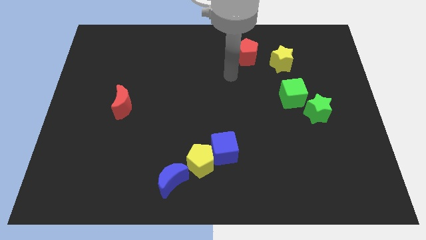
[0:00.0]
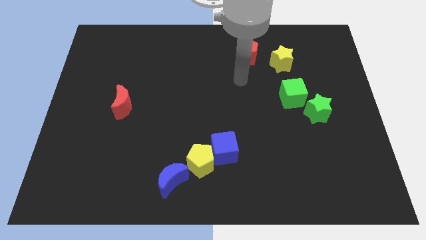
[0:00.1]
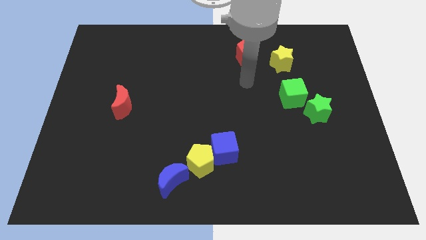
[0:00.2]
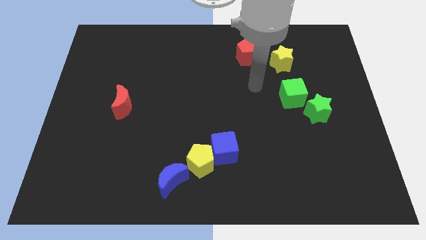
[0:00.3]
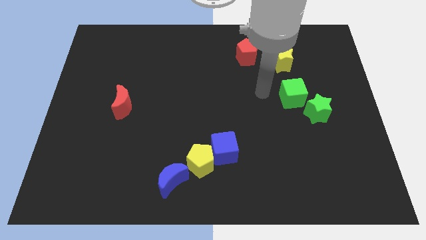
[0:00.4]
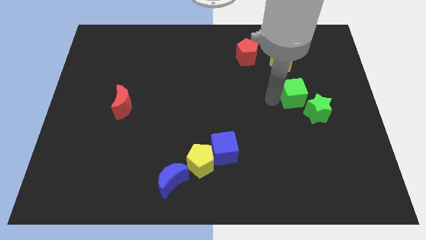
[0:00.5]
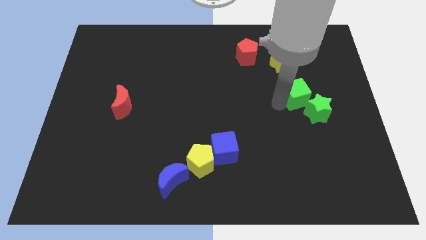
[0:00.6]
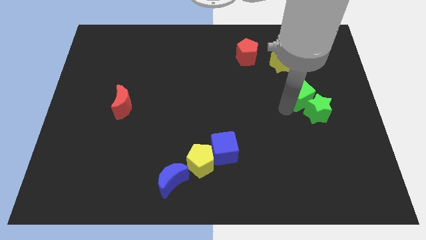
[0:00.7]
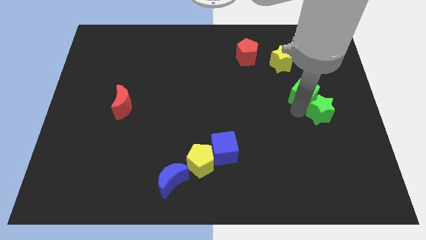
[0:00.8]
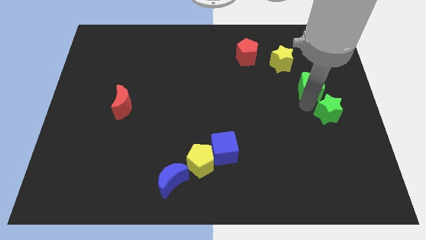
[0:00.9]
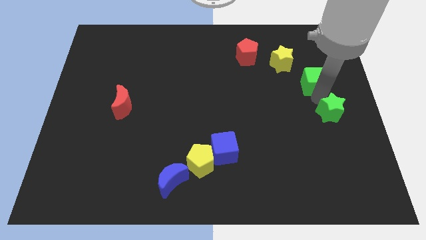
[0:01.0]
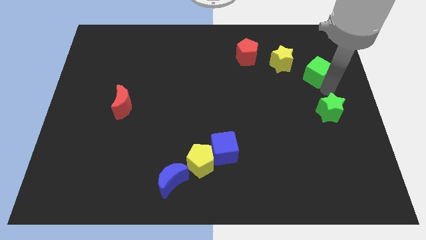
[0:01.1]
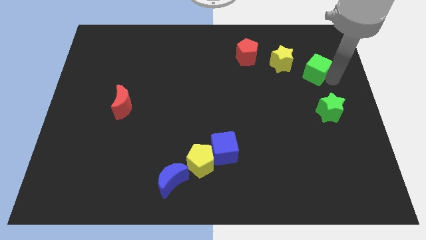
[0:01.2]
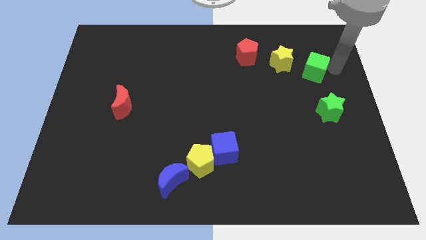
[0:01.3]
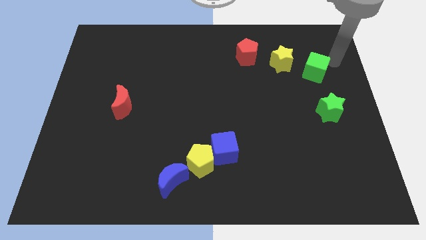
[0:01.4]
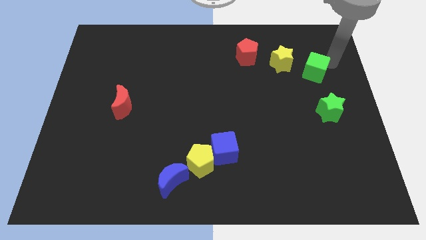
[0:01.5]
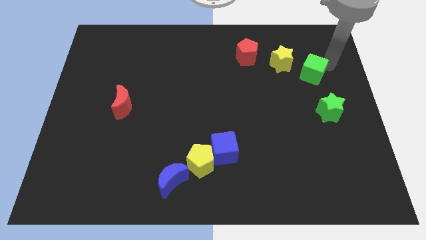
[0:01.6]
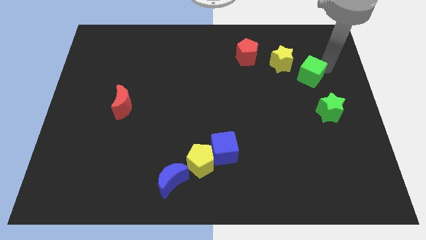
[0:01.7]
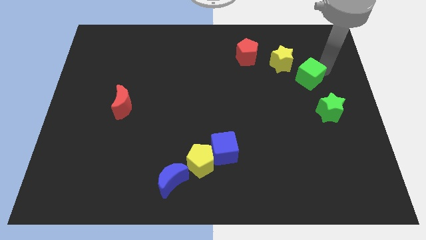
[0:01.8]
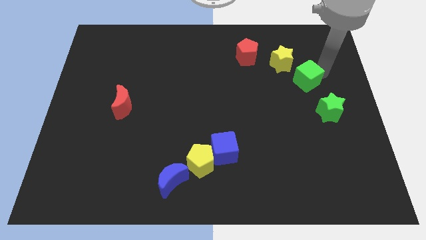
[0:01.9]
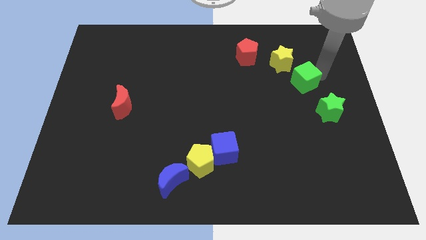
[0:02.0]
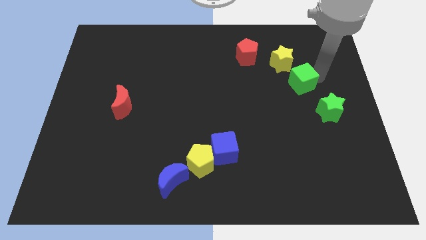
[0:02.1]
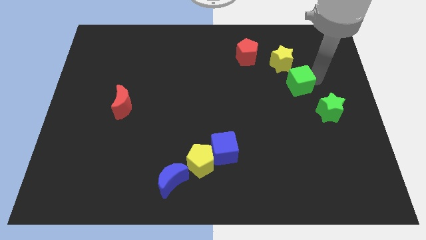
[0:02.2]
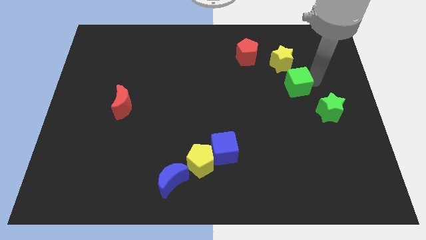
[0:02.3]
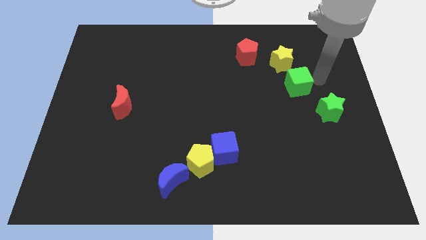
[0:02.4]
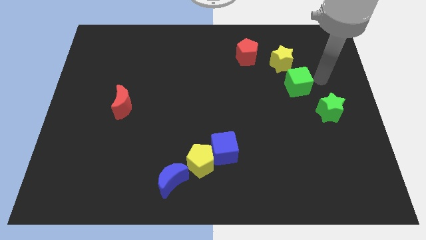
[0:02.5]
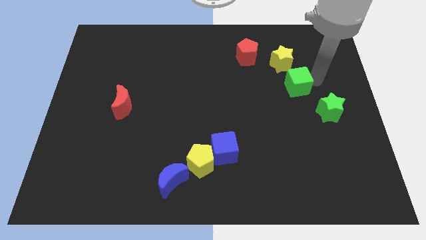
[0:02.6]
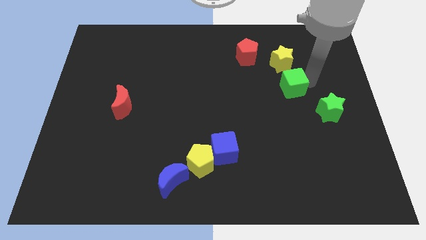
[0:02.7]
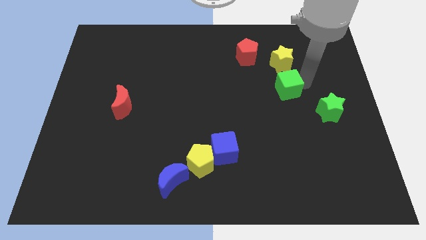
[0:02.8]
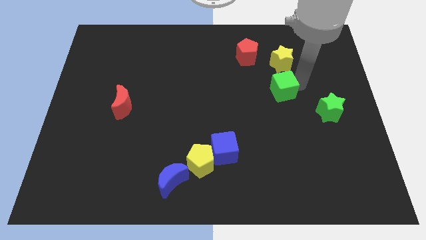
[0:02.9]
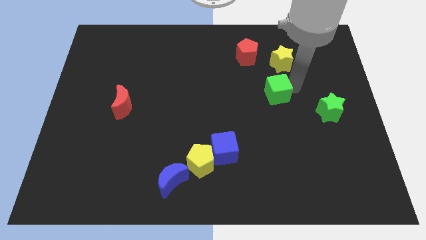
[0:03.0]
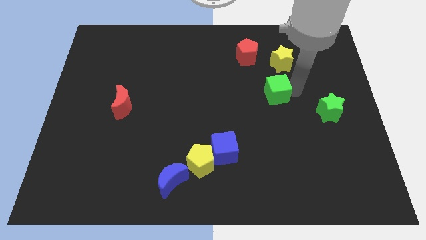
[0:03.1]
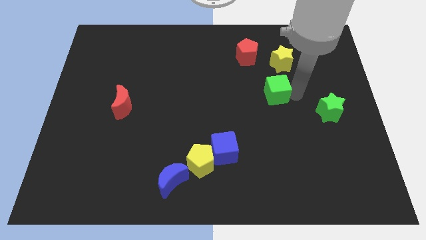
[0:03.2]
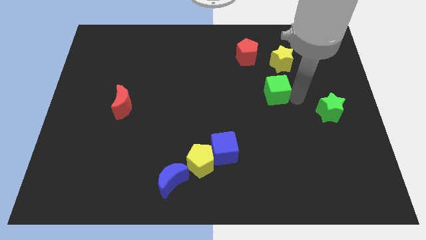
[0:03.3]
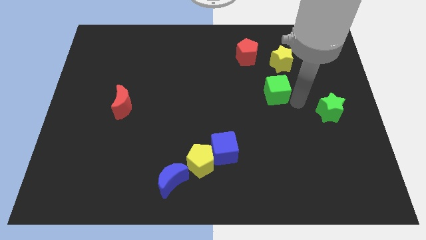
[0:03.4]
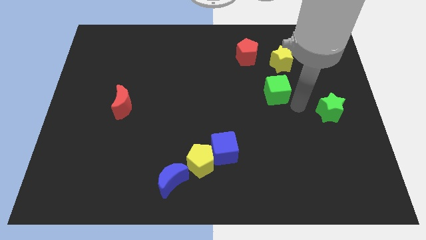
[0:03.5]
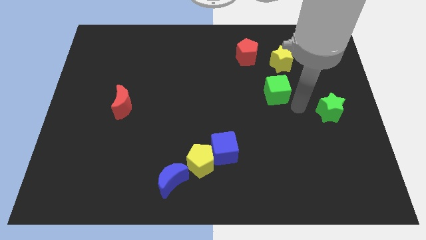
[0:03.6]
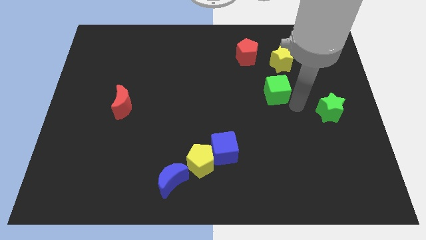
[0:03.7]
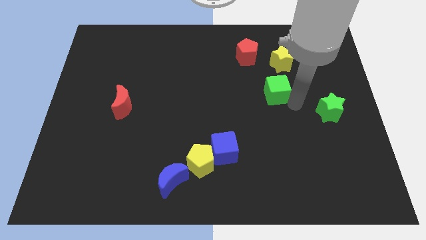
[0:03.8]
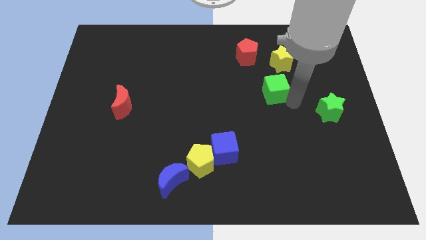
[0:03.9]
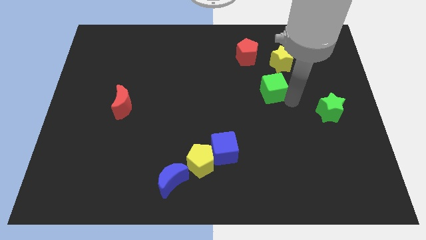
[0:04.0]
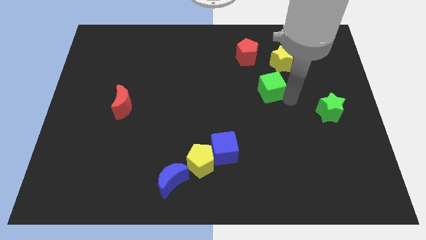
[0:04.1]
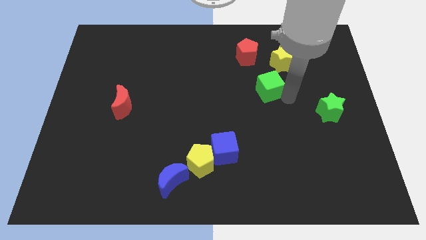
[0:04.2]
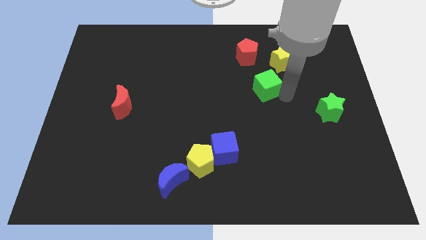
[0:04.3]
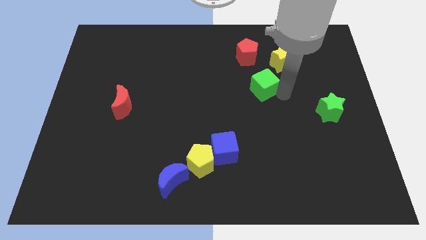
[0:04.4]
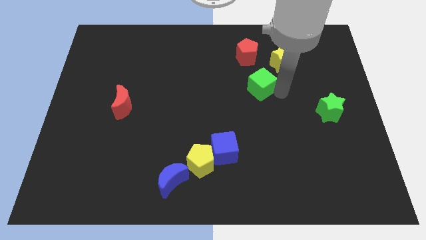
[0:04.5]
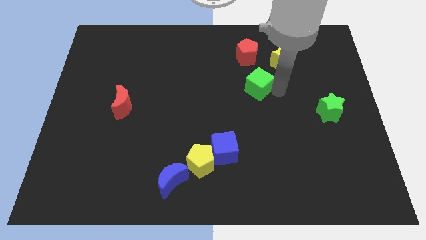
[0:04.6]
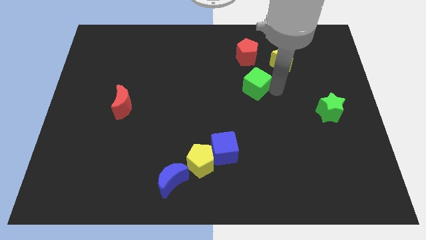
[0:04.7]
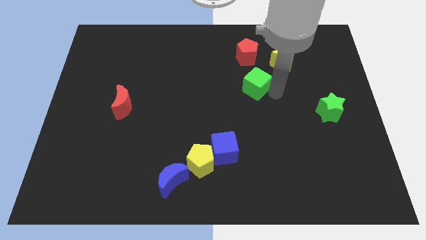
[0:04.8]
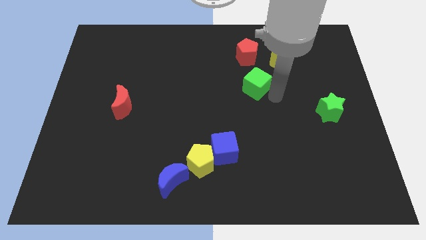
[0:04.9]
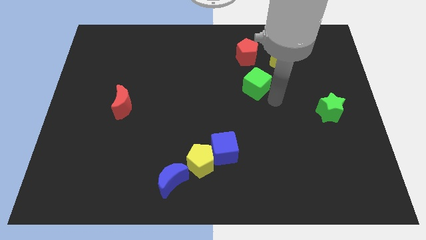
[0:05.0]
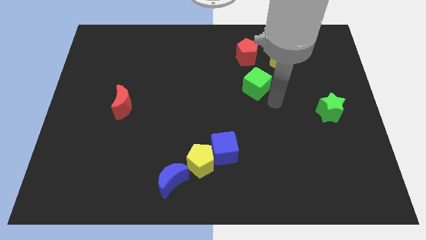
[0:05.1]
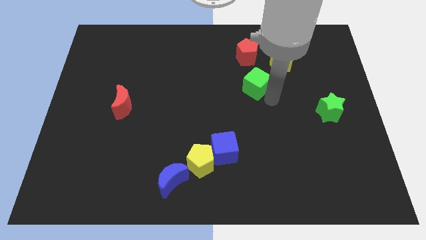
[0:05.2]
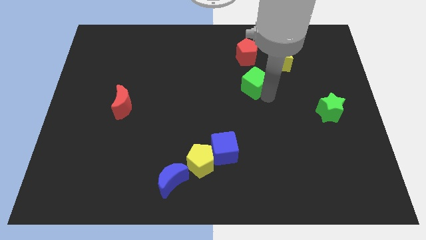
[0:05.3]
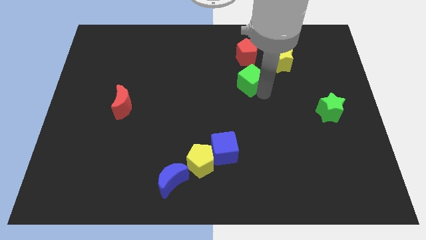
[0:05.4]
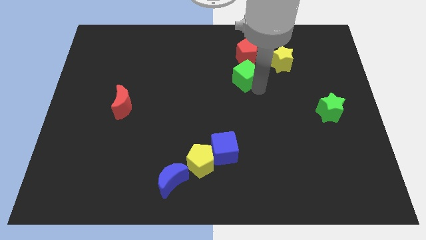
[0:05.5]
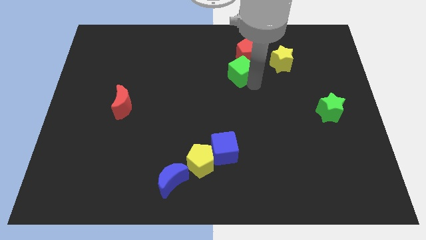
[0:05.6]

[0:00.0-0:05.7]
slide the green cube to the bottom left of the red pentagon

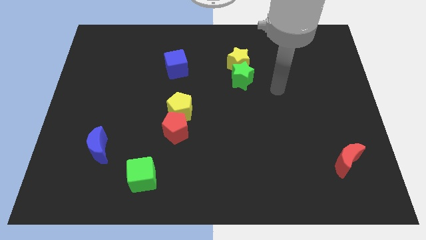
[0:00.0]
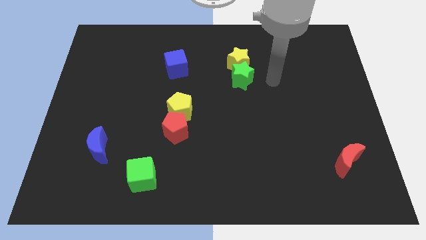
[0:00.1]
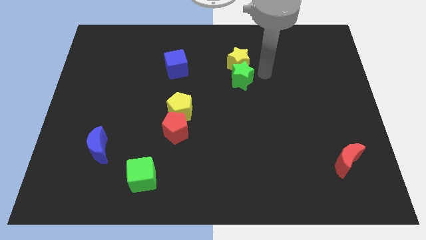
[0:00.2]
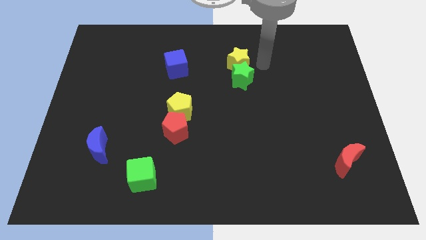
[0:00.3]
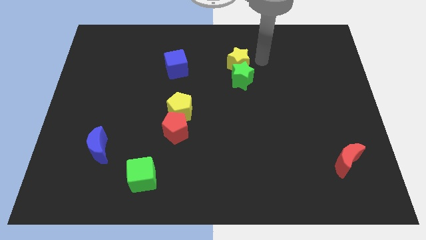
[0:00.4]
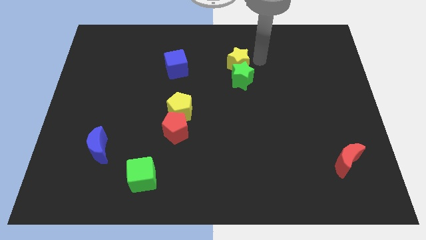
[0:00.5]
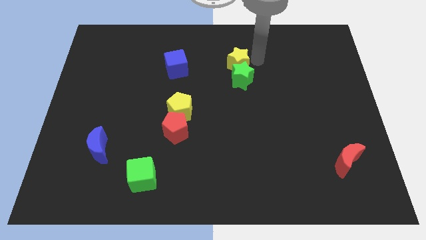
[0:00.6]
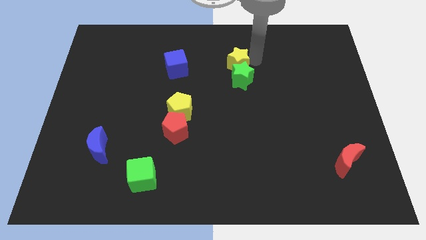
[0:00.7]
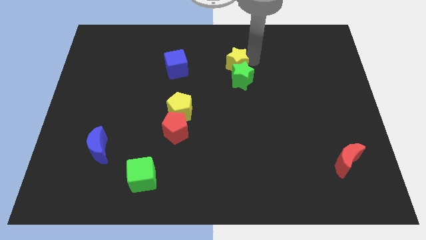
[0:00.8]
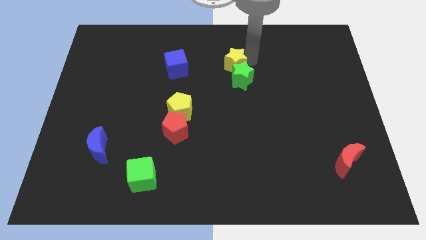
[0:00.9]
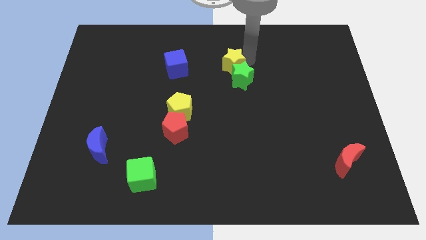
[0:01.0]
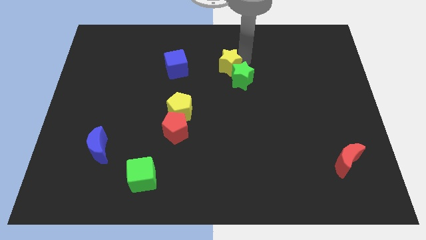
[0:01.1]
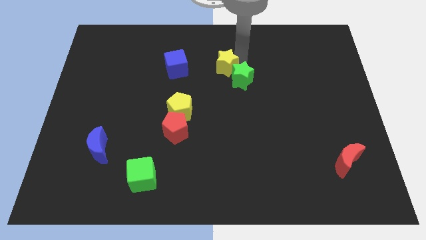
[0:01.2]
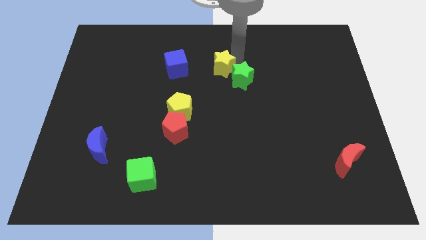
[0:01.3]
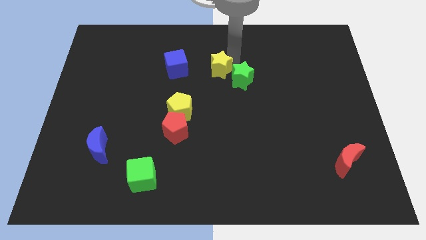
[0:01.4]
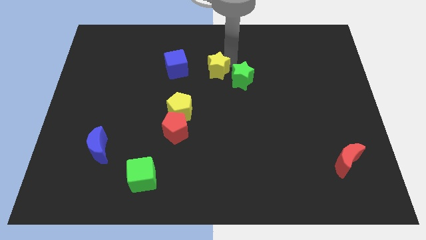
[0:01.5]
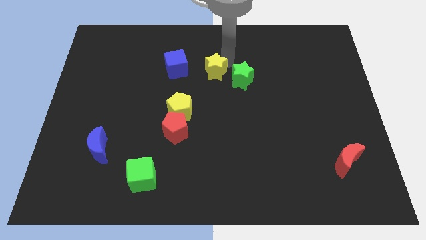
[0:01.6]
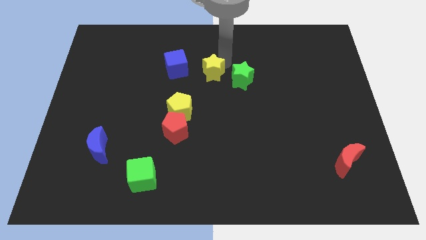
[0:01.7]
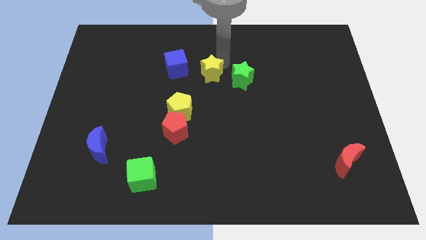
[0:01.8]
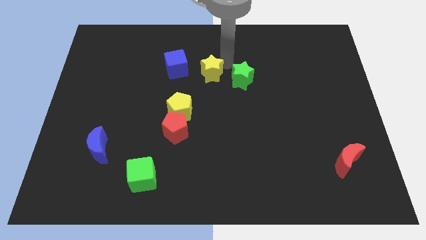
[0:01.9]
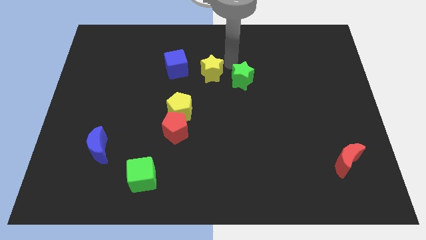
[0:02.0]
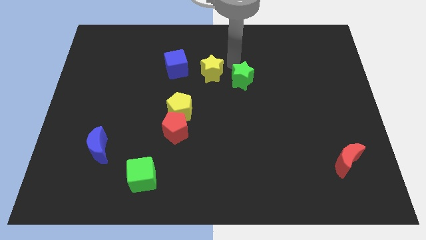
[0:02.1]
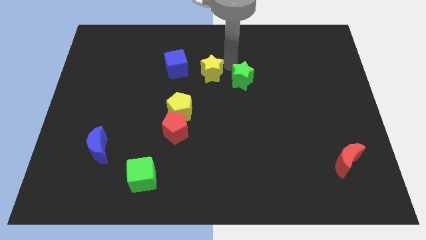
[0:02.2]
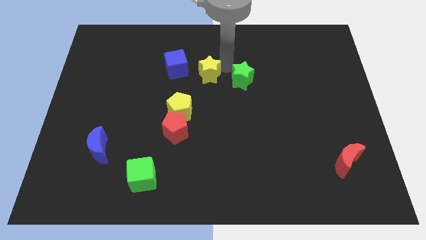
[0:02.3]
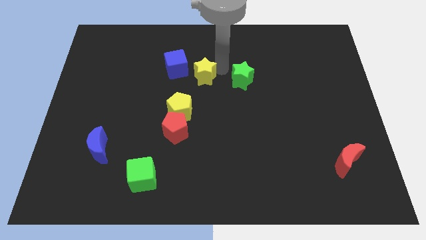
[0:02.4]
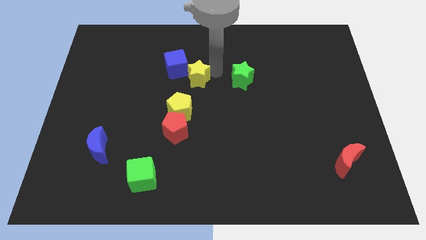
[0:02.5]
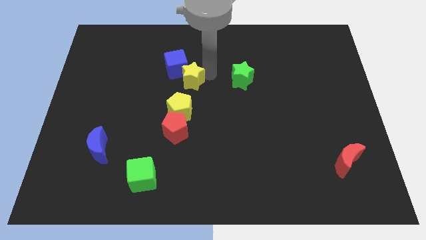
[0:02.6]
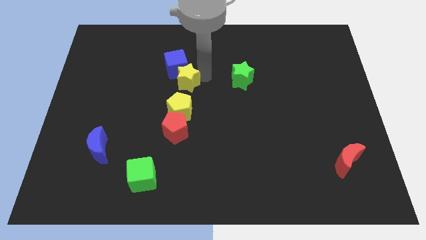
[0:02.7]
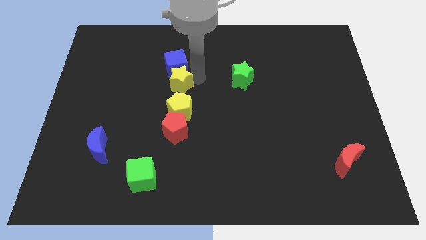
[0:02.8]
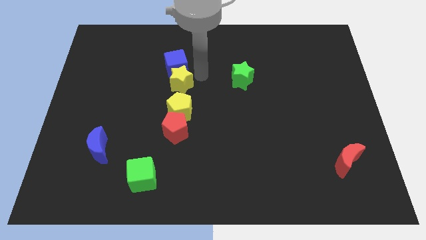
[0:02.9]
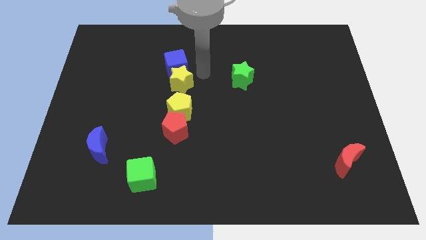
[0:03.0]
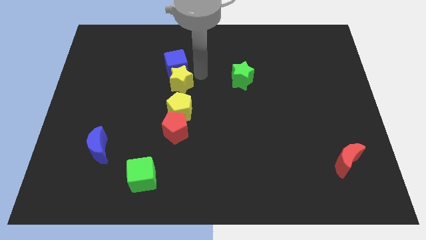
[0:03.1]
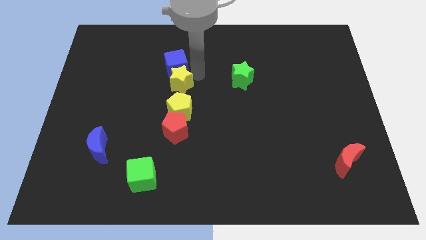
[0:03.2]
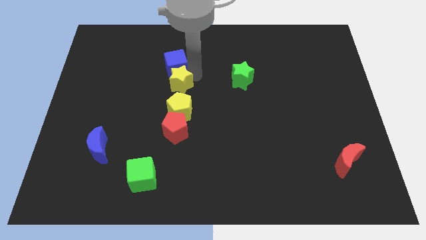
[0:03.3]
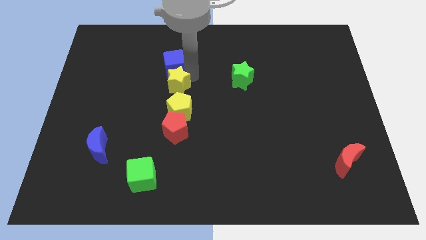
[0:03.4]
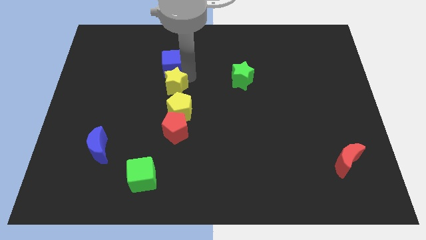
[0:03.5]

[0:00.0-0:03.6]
slide the yellow star to the top left side of the yellow pentagon
